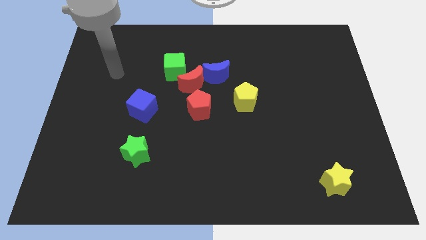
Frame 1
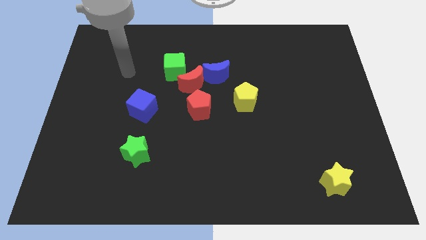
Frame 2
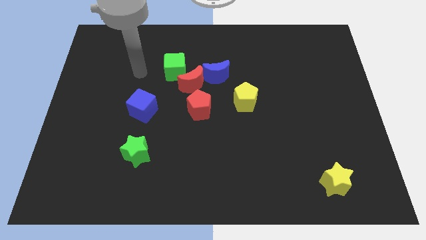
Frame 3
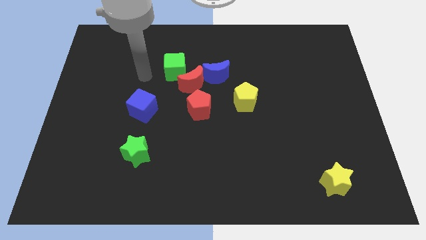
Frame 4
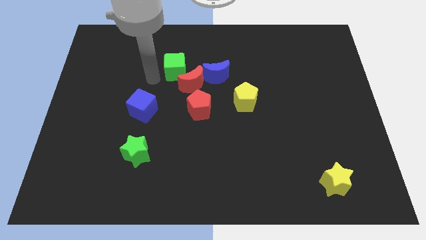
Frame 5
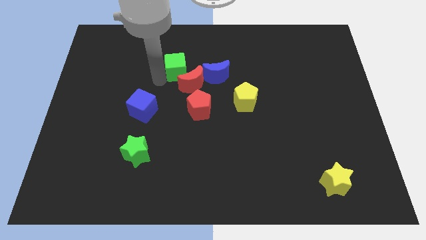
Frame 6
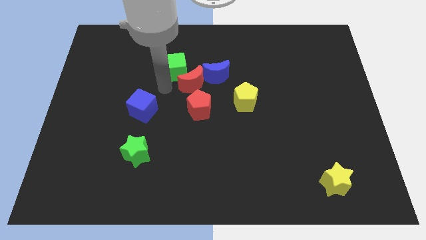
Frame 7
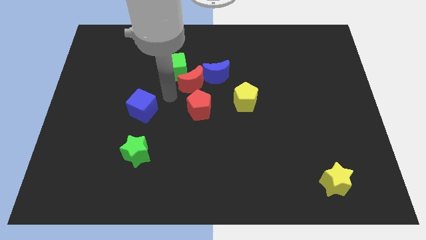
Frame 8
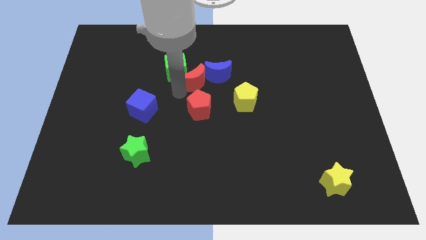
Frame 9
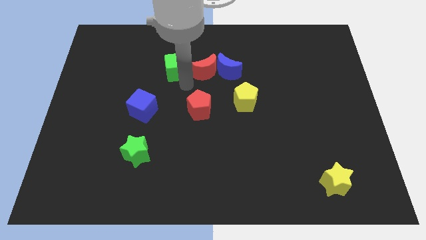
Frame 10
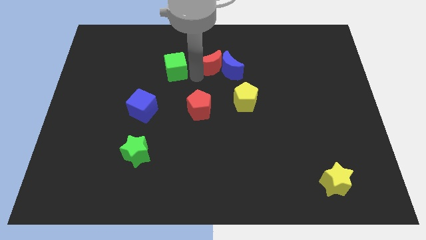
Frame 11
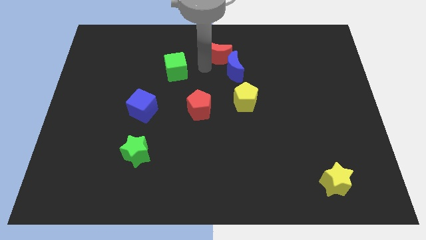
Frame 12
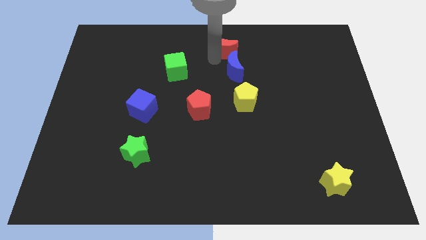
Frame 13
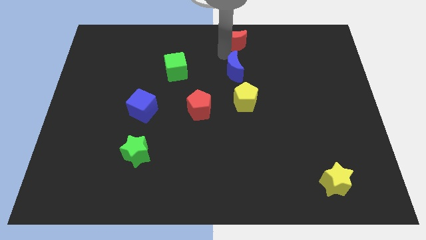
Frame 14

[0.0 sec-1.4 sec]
pull the blue moon apart from the red moon

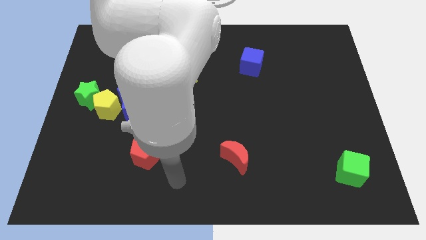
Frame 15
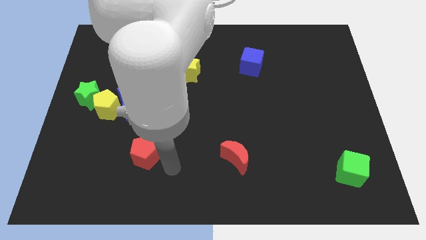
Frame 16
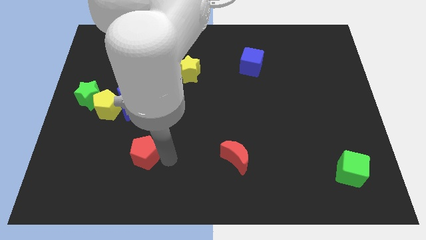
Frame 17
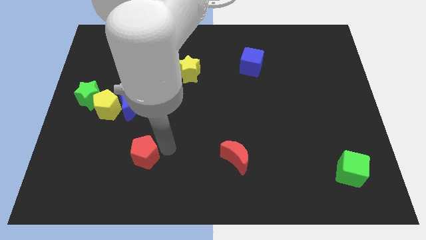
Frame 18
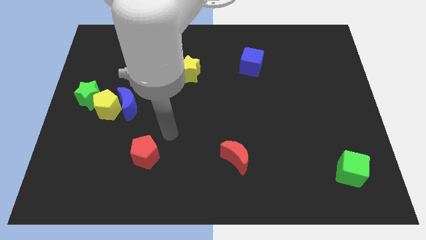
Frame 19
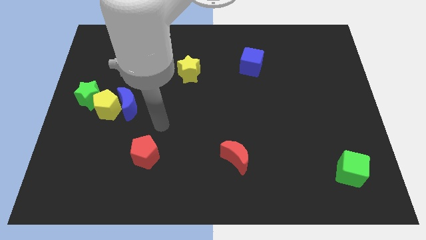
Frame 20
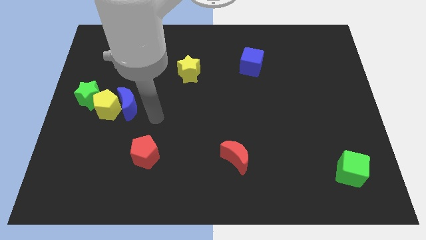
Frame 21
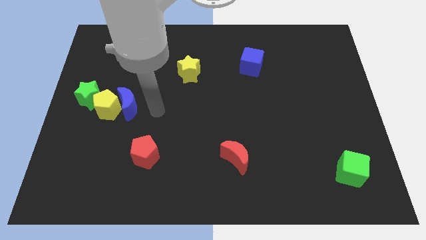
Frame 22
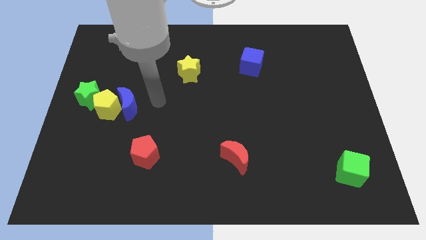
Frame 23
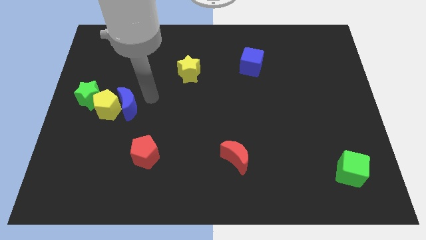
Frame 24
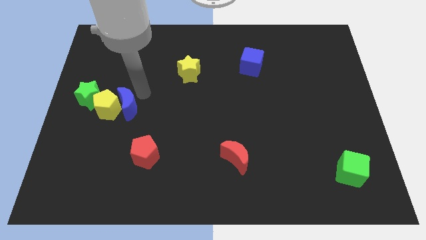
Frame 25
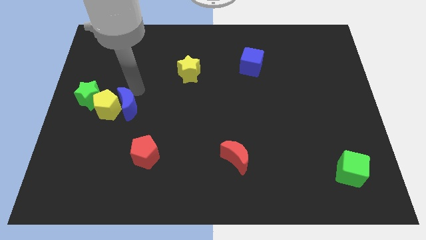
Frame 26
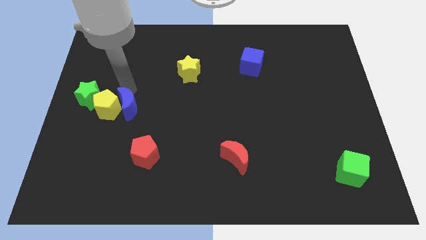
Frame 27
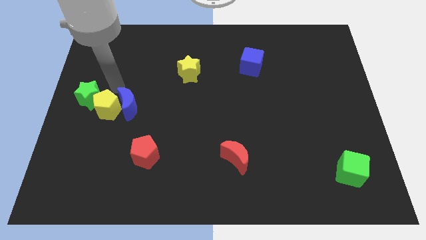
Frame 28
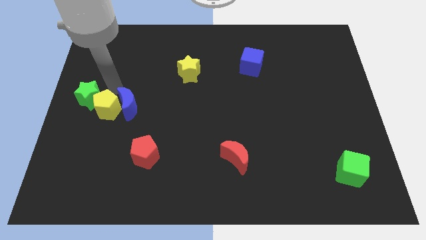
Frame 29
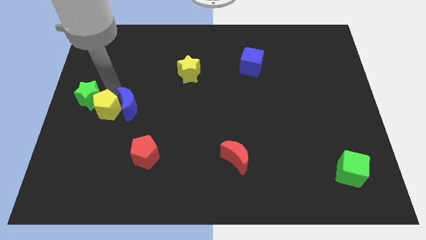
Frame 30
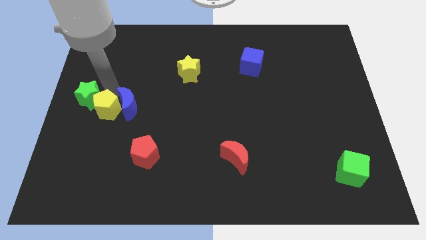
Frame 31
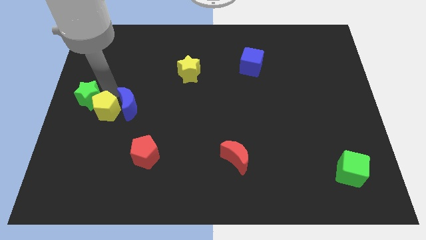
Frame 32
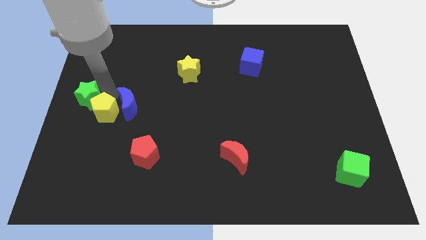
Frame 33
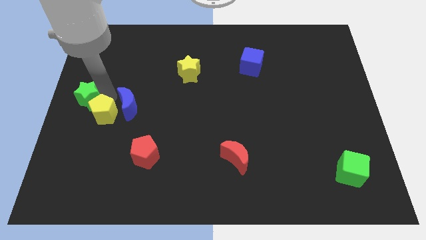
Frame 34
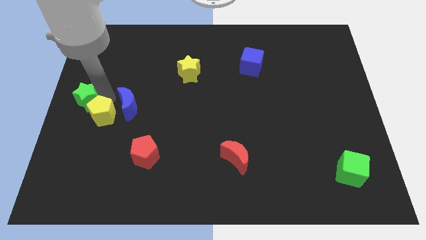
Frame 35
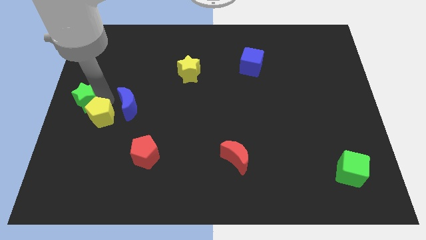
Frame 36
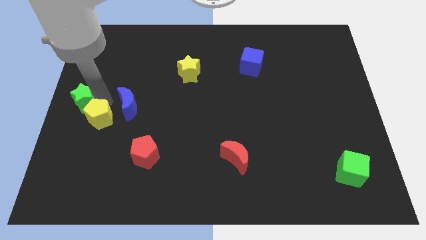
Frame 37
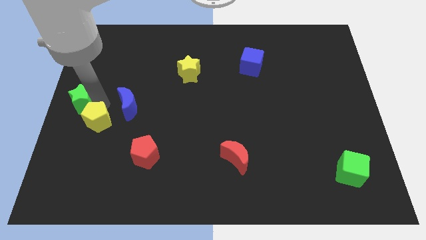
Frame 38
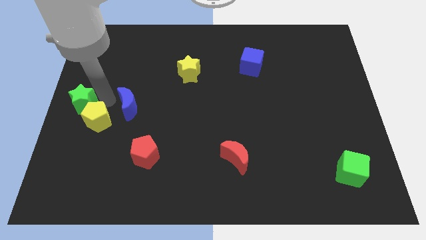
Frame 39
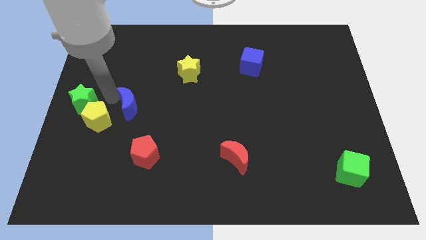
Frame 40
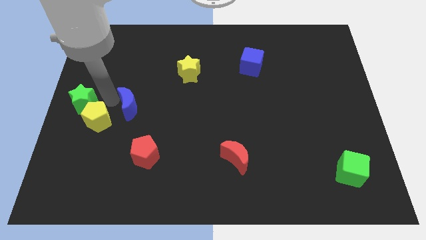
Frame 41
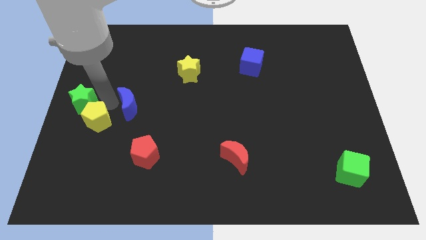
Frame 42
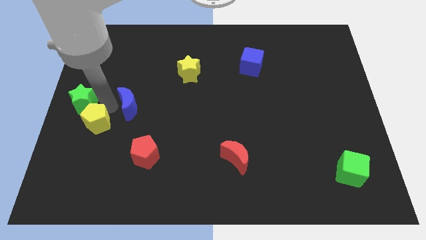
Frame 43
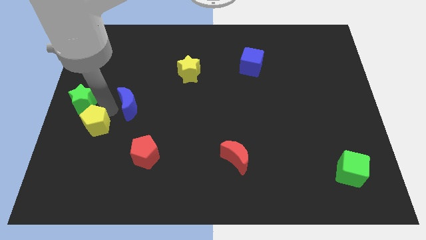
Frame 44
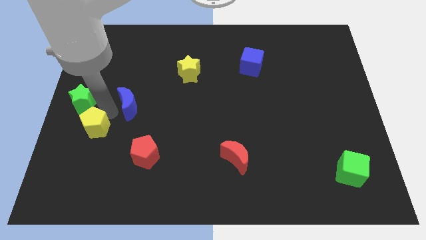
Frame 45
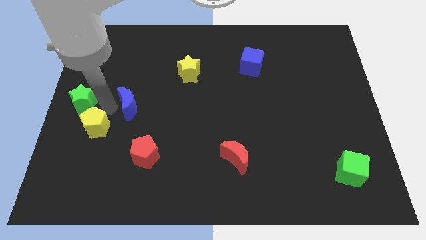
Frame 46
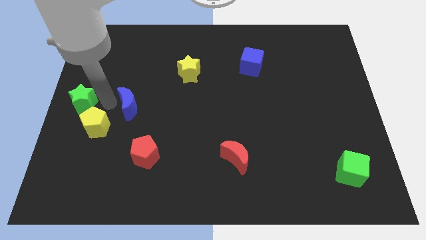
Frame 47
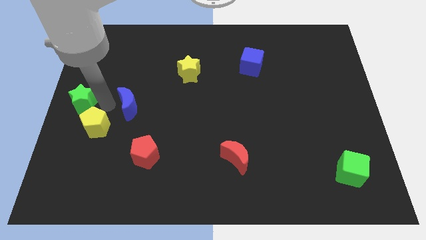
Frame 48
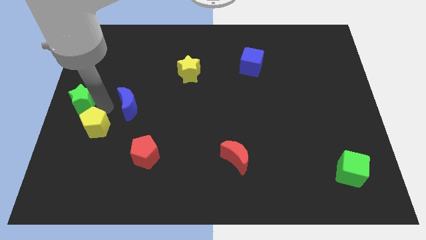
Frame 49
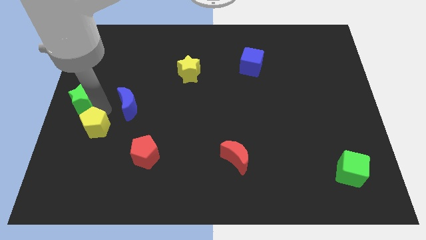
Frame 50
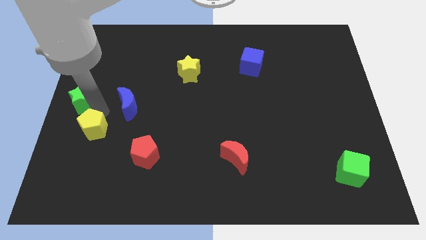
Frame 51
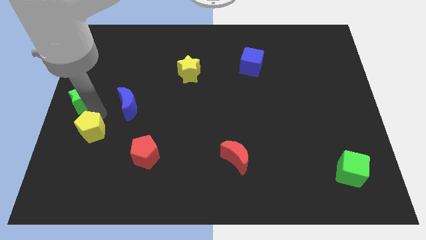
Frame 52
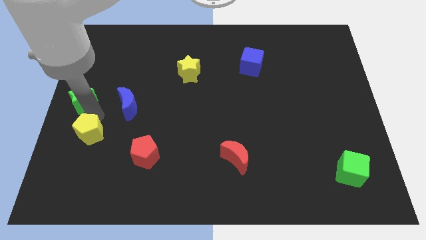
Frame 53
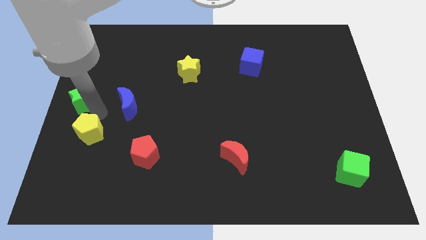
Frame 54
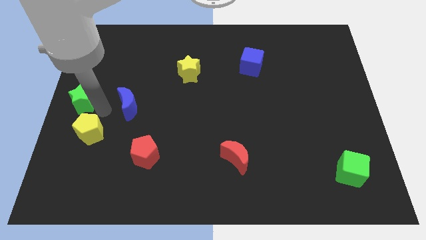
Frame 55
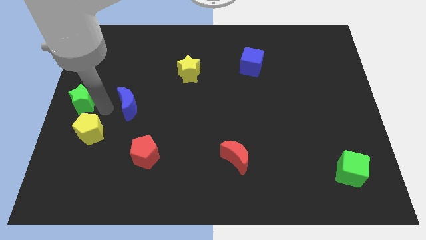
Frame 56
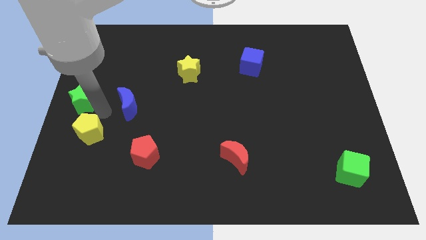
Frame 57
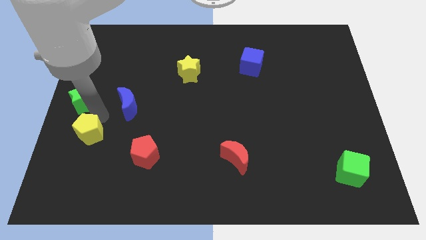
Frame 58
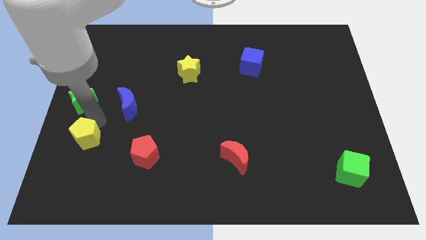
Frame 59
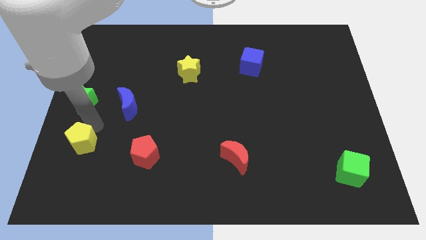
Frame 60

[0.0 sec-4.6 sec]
separate the yellow pentagon from the blue moon and green star

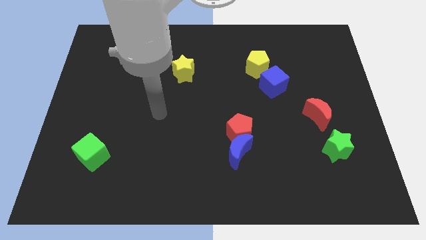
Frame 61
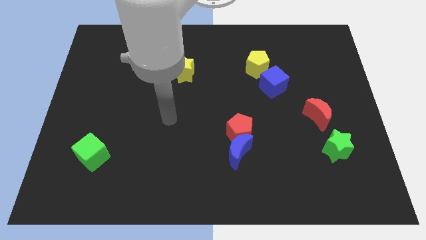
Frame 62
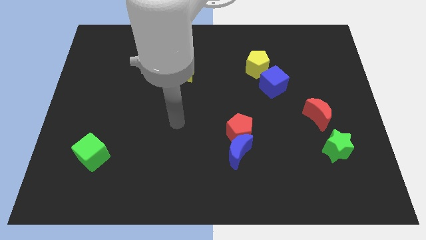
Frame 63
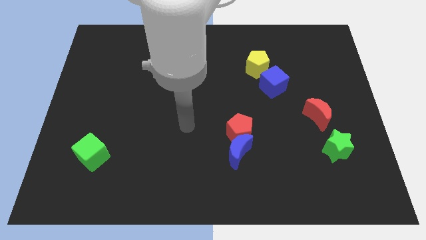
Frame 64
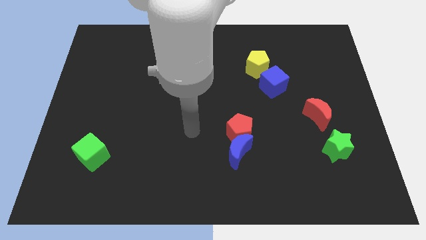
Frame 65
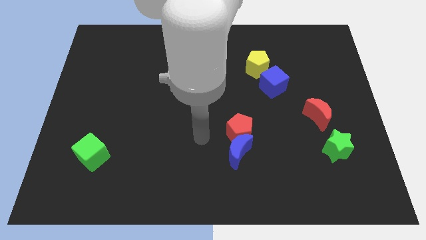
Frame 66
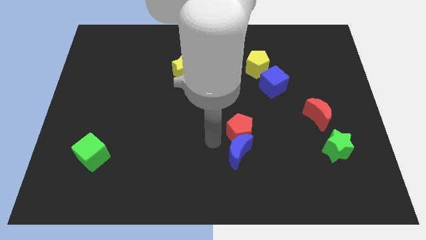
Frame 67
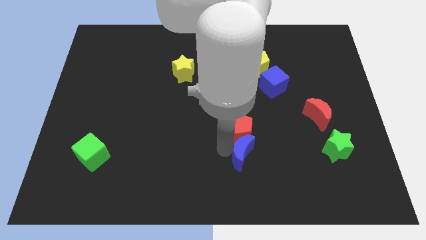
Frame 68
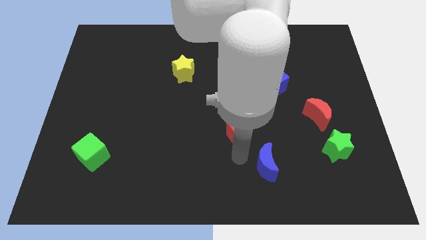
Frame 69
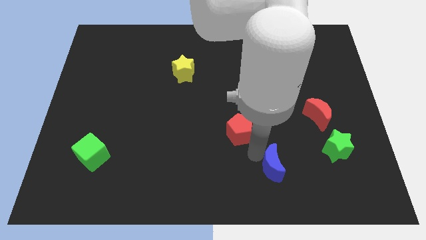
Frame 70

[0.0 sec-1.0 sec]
pull the red pentagon apart from the blue moon

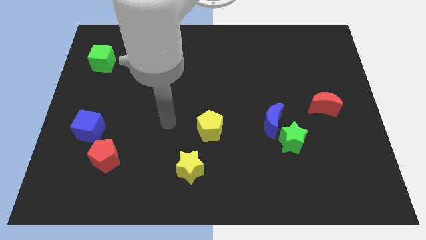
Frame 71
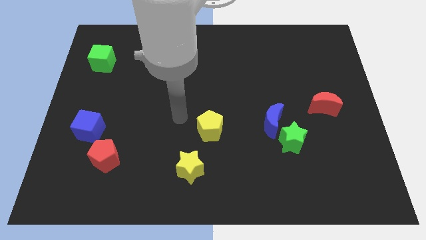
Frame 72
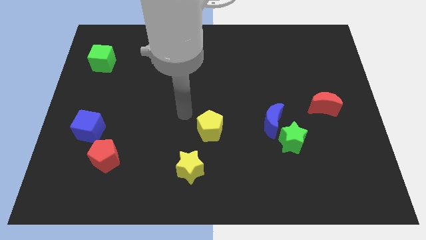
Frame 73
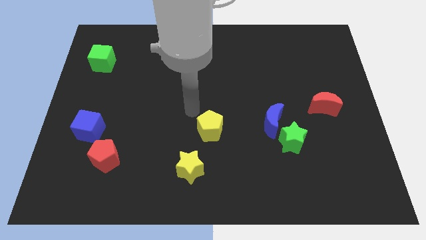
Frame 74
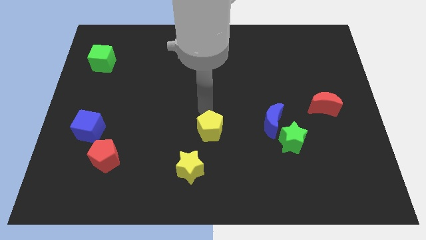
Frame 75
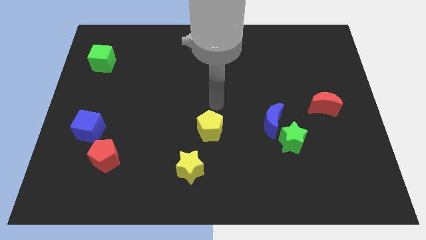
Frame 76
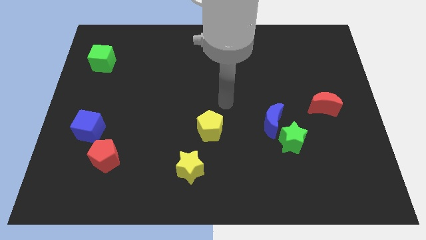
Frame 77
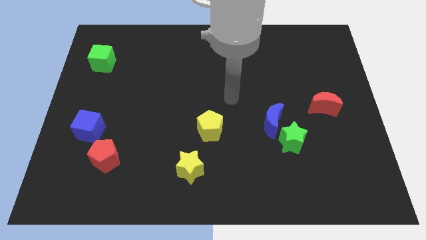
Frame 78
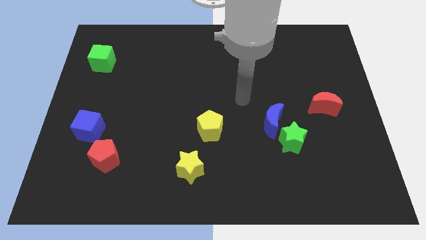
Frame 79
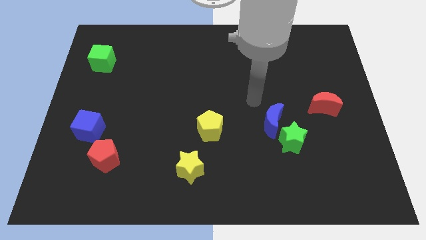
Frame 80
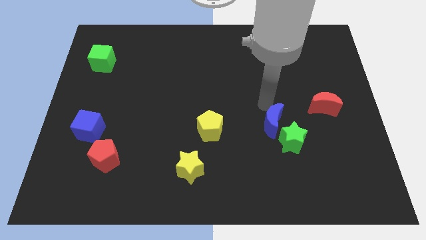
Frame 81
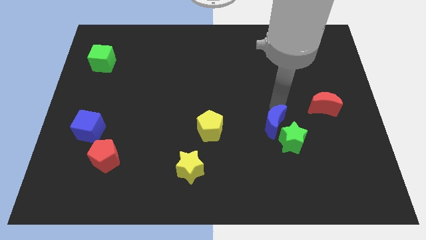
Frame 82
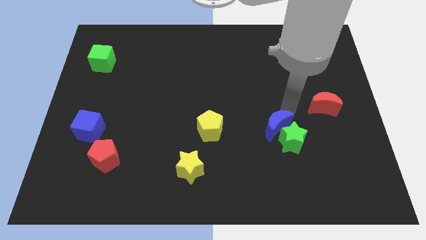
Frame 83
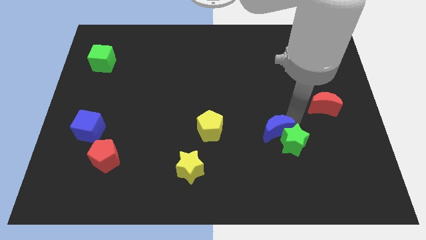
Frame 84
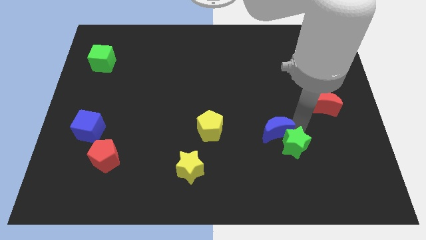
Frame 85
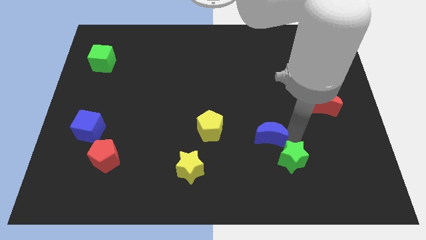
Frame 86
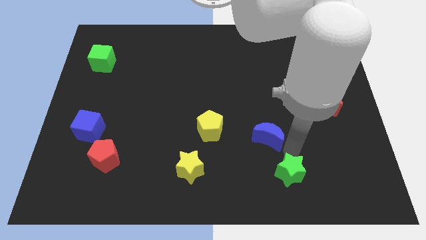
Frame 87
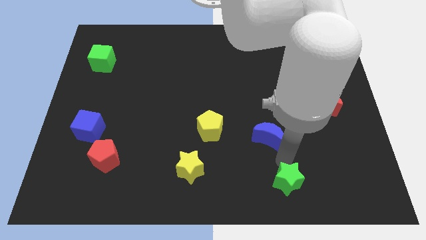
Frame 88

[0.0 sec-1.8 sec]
pull the blue moon apart from the green star

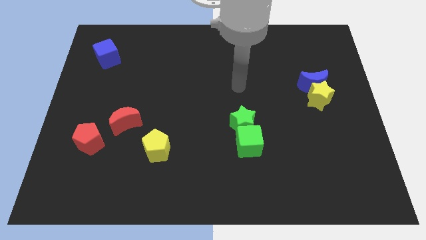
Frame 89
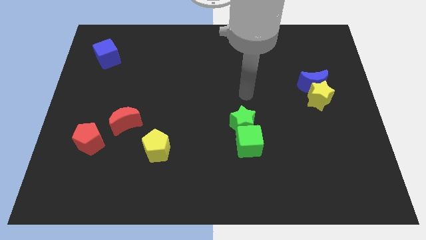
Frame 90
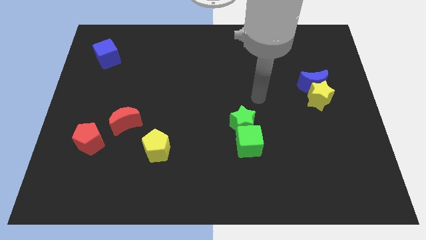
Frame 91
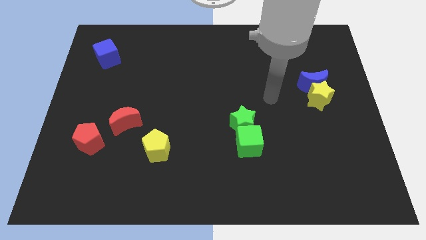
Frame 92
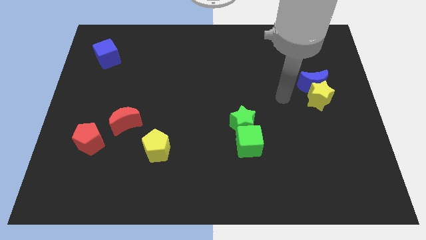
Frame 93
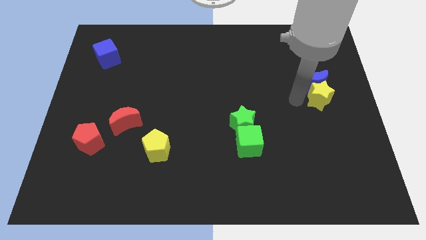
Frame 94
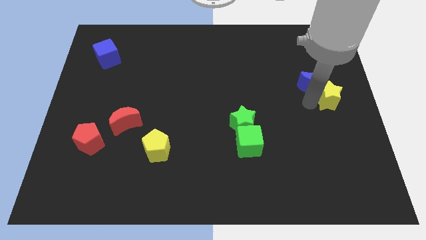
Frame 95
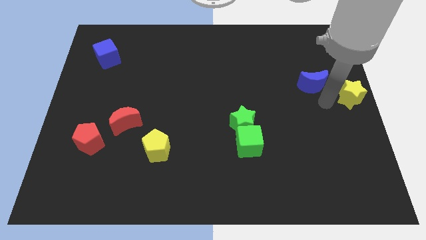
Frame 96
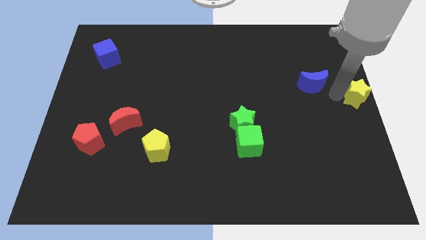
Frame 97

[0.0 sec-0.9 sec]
move the blue moon away from the yellow star
